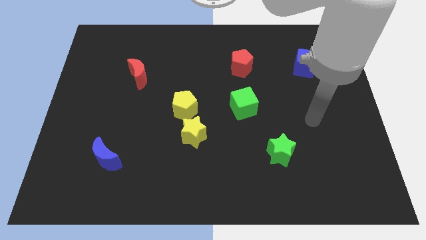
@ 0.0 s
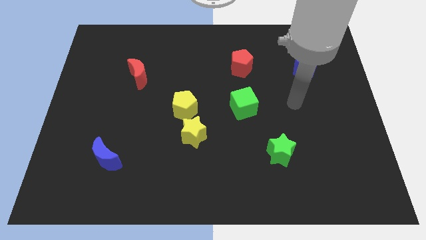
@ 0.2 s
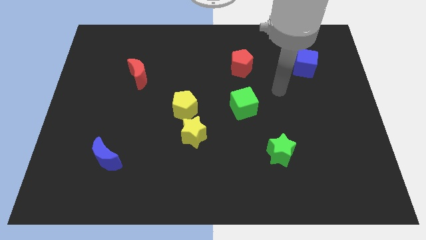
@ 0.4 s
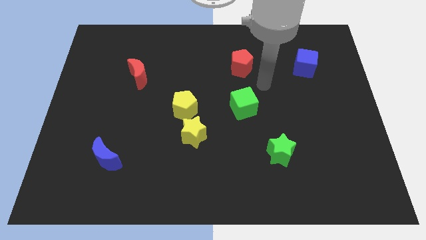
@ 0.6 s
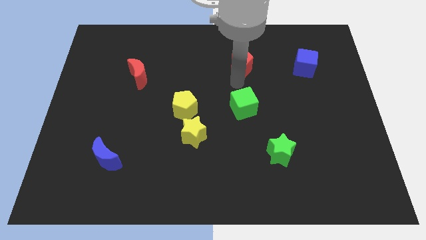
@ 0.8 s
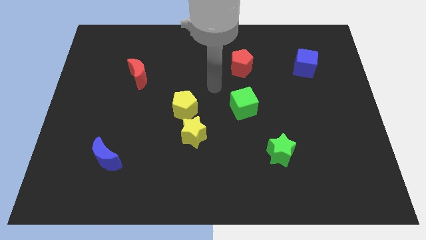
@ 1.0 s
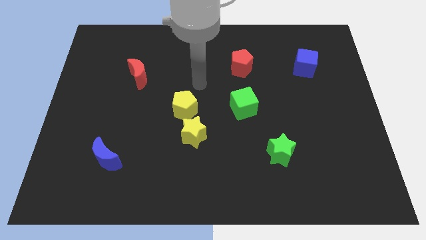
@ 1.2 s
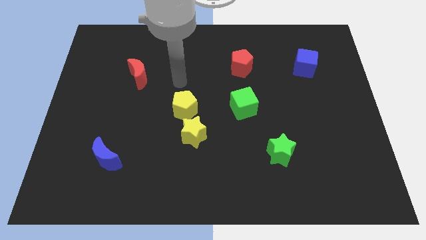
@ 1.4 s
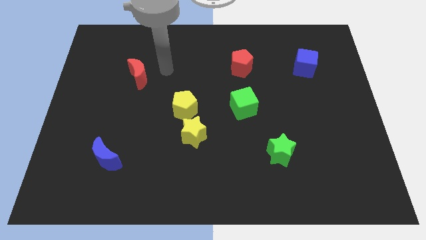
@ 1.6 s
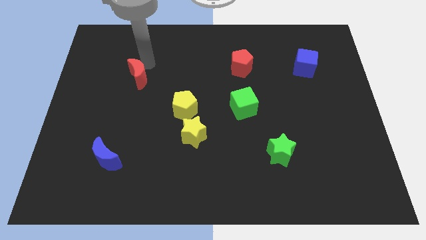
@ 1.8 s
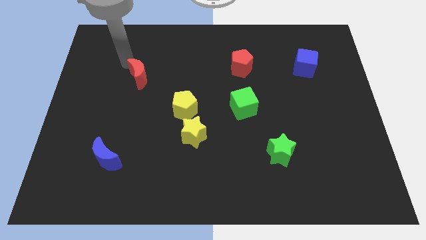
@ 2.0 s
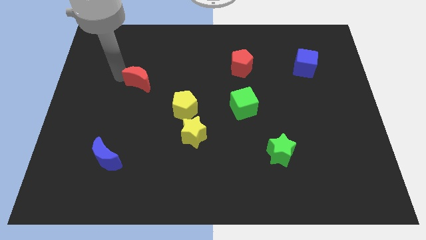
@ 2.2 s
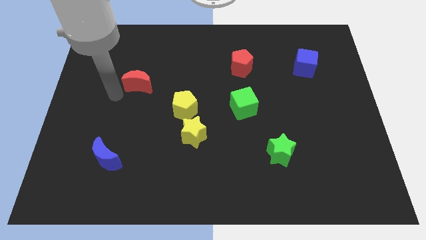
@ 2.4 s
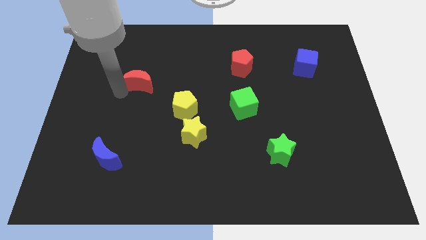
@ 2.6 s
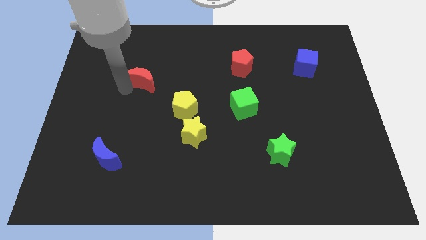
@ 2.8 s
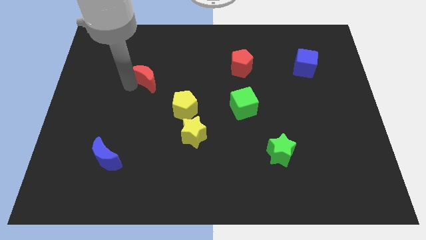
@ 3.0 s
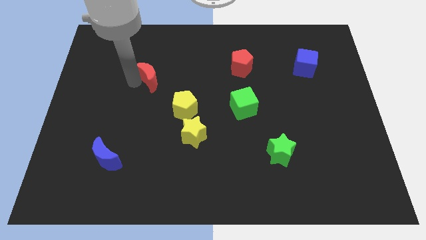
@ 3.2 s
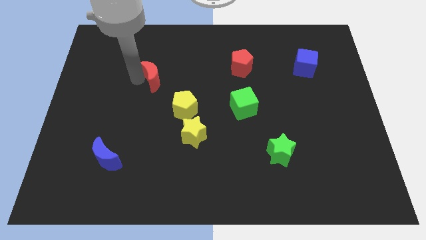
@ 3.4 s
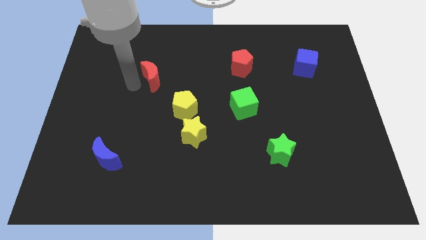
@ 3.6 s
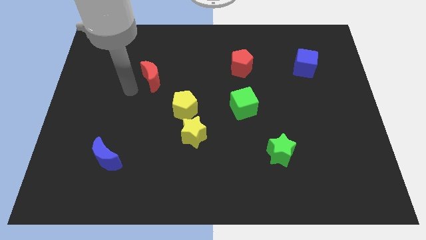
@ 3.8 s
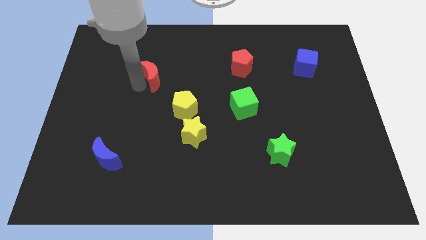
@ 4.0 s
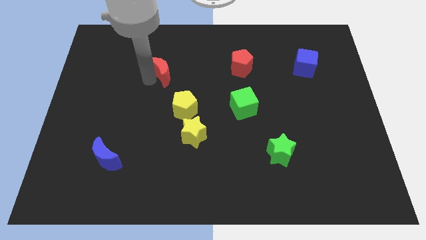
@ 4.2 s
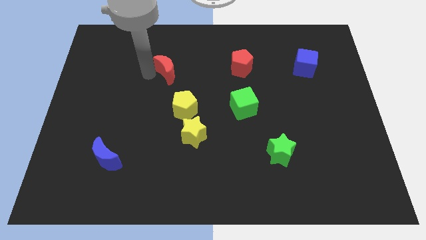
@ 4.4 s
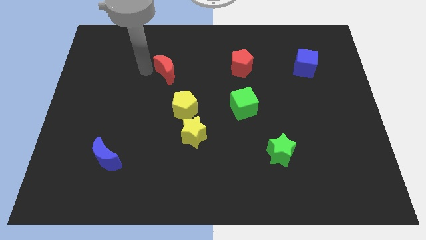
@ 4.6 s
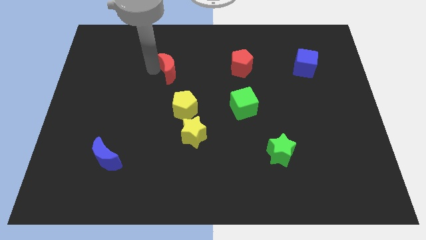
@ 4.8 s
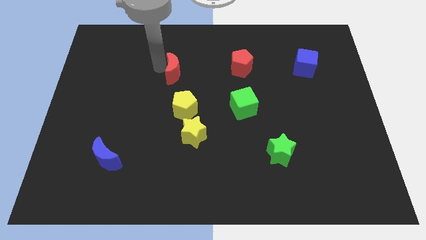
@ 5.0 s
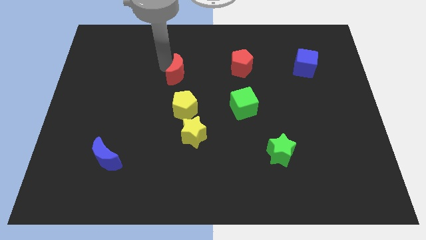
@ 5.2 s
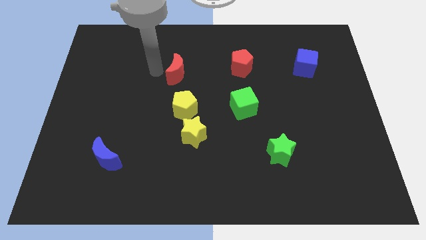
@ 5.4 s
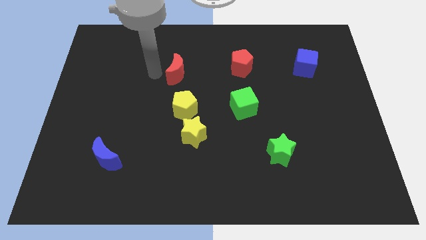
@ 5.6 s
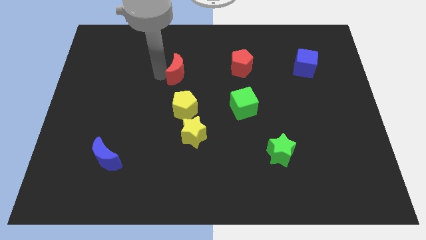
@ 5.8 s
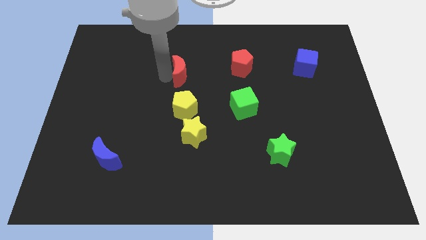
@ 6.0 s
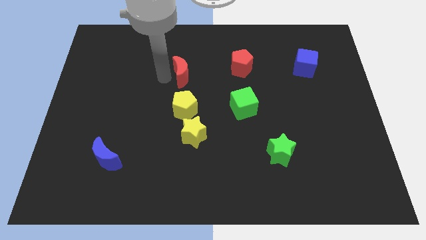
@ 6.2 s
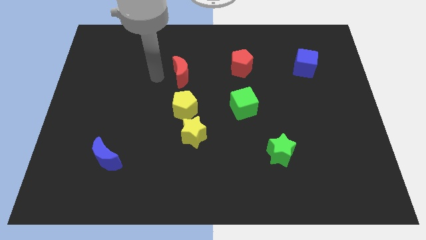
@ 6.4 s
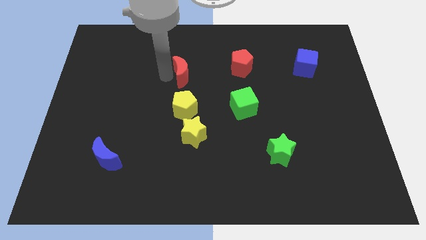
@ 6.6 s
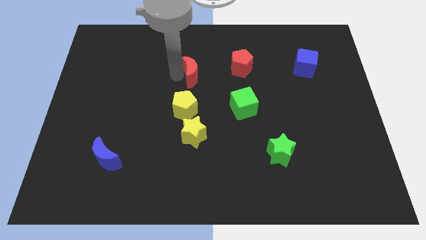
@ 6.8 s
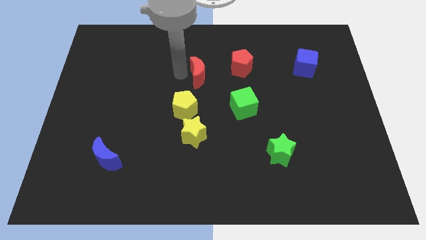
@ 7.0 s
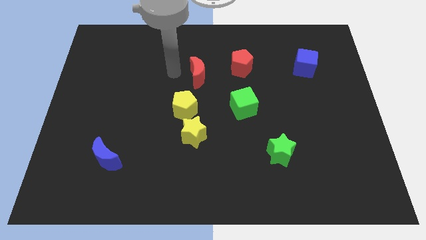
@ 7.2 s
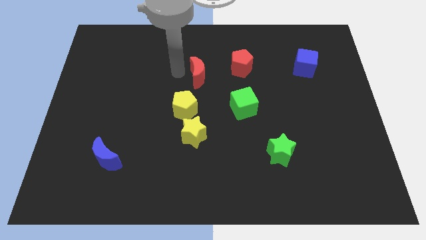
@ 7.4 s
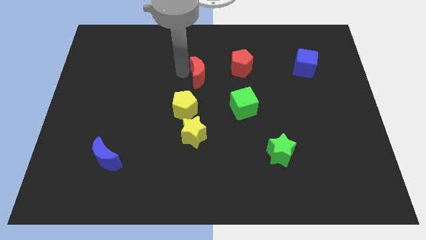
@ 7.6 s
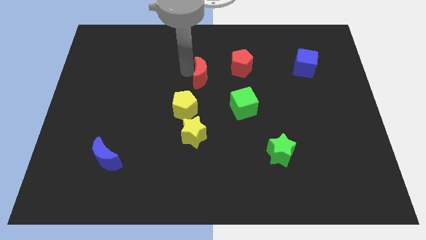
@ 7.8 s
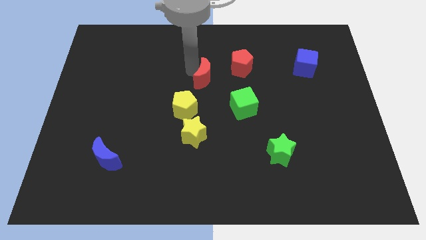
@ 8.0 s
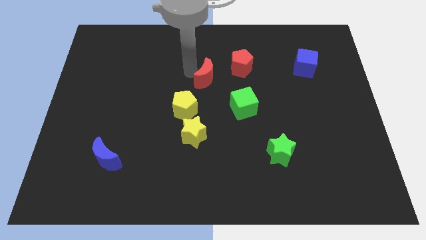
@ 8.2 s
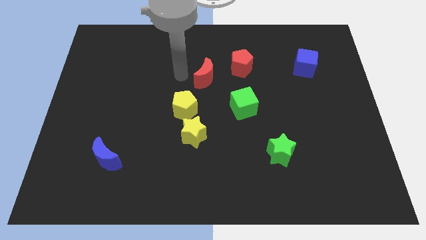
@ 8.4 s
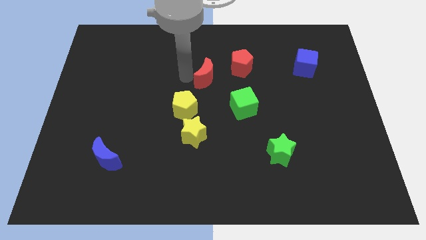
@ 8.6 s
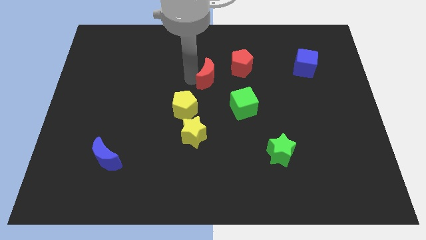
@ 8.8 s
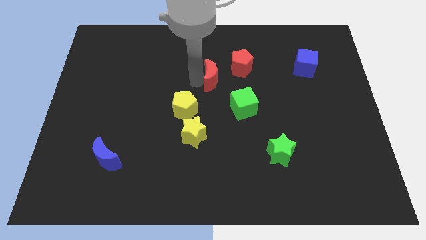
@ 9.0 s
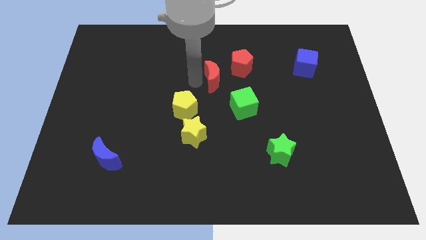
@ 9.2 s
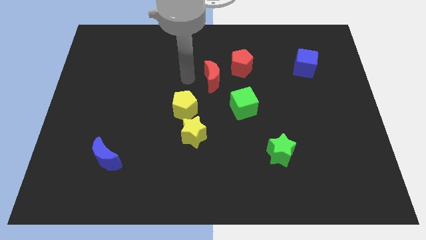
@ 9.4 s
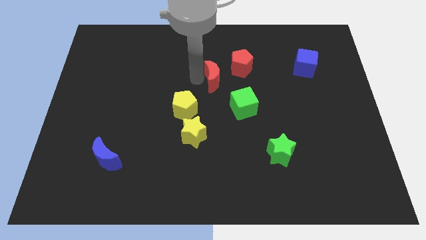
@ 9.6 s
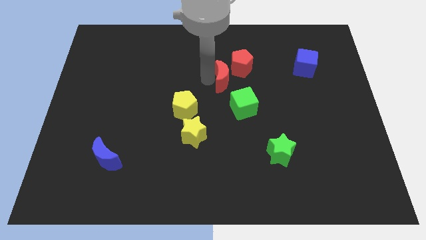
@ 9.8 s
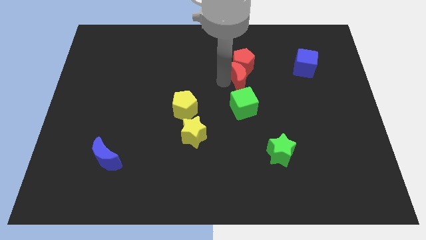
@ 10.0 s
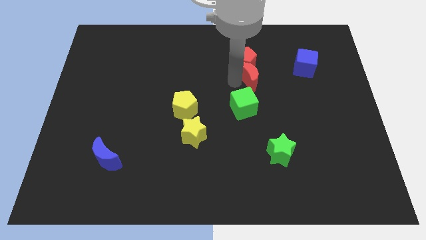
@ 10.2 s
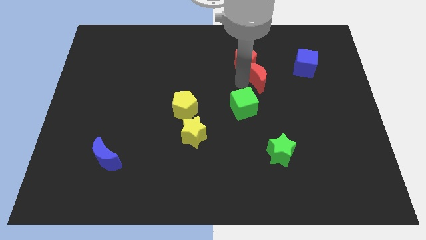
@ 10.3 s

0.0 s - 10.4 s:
move the red moon just left of the blue cube

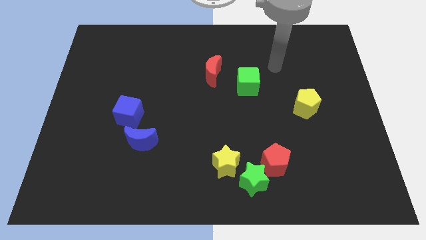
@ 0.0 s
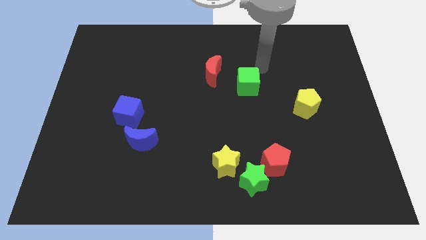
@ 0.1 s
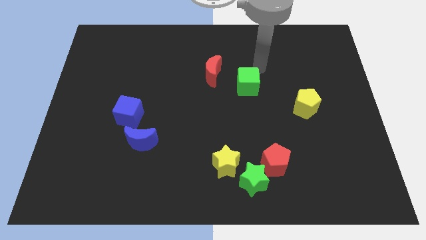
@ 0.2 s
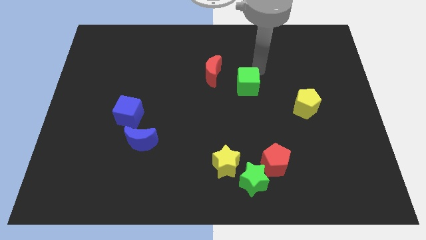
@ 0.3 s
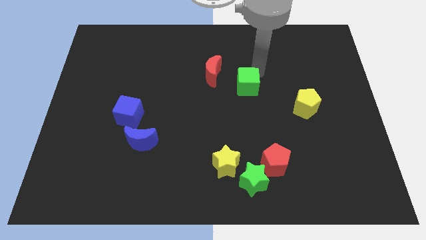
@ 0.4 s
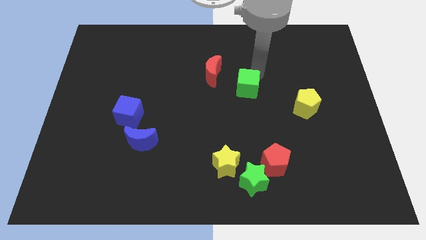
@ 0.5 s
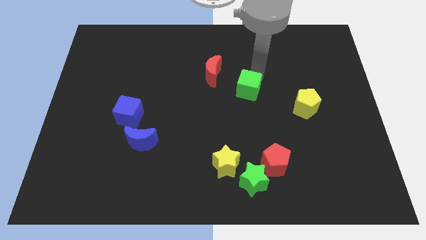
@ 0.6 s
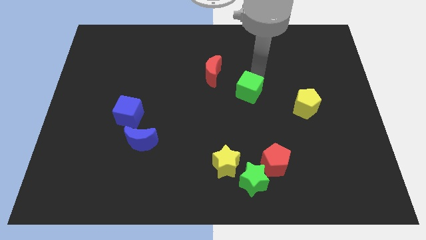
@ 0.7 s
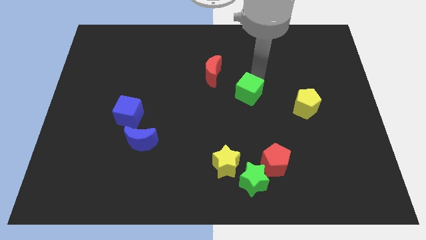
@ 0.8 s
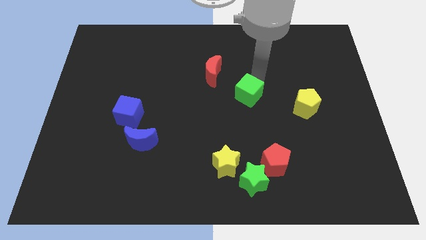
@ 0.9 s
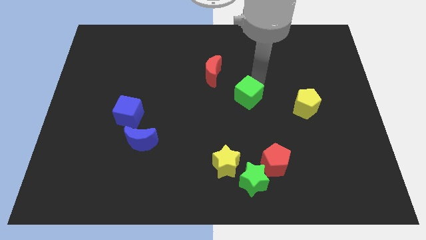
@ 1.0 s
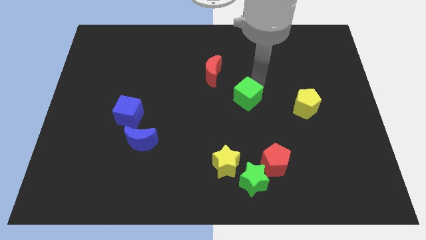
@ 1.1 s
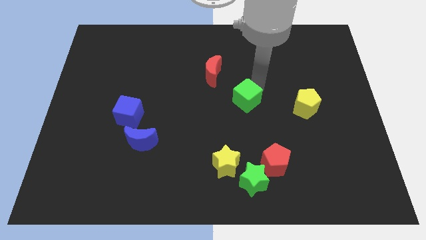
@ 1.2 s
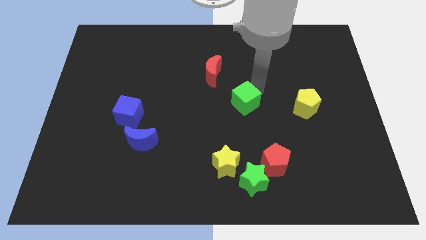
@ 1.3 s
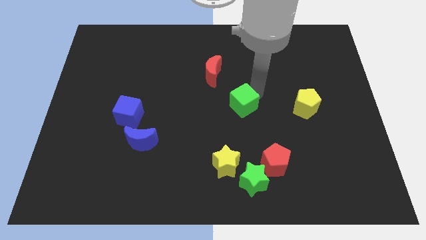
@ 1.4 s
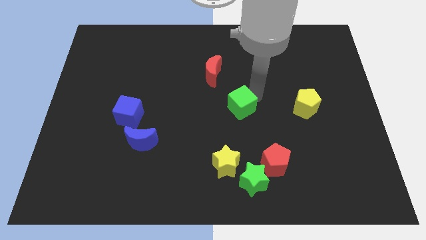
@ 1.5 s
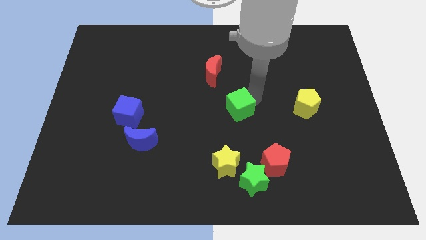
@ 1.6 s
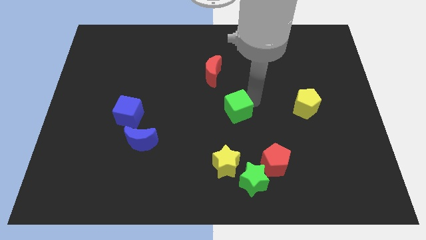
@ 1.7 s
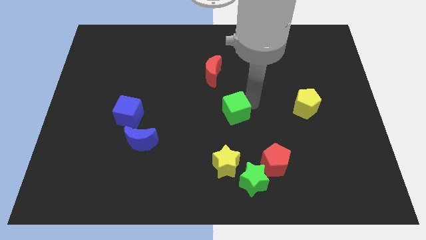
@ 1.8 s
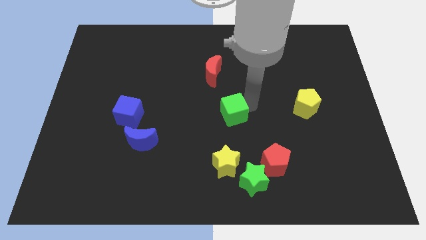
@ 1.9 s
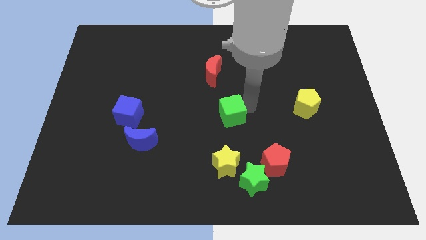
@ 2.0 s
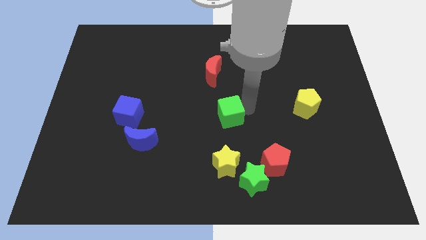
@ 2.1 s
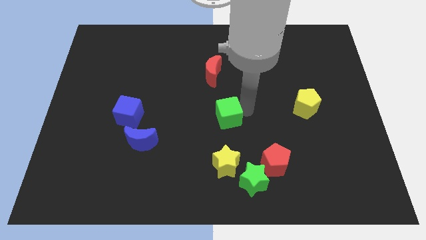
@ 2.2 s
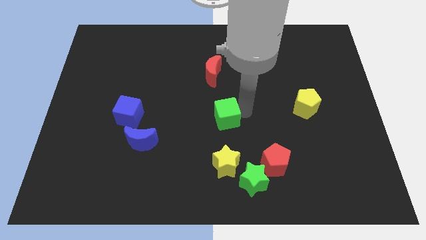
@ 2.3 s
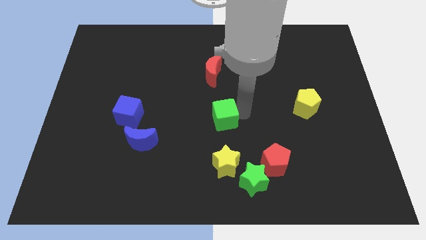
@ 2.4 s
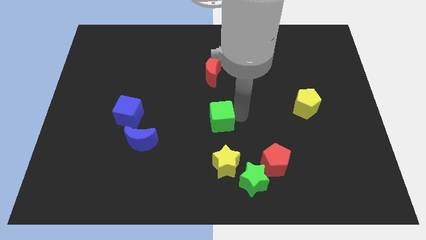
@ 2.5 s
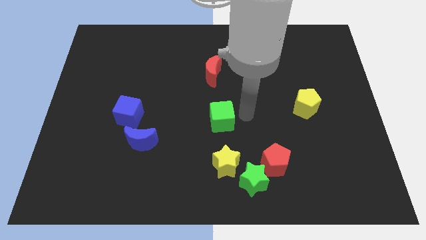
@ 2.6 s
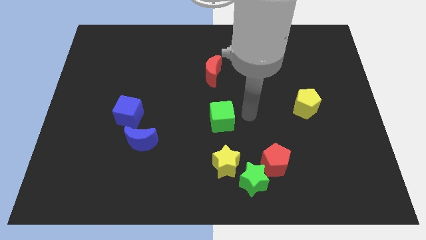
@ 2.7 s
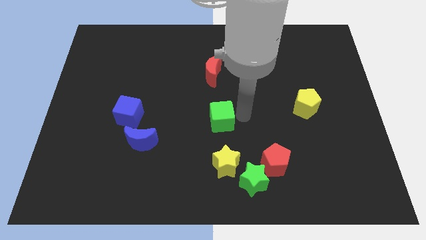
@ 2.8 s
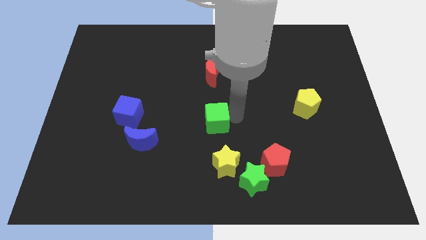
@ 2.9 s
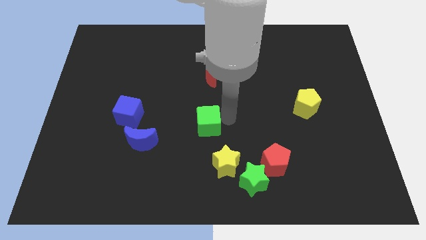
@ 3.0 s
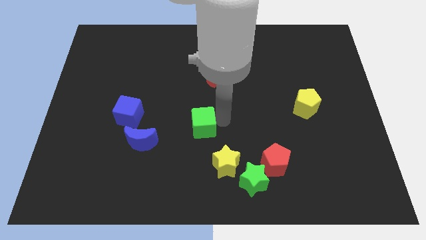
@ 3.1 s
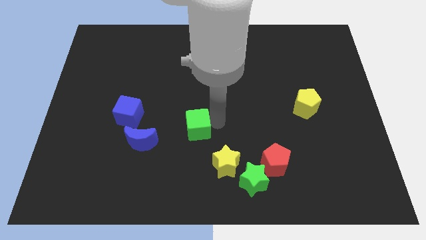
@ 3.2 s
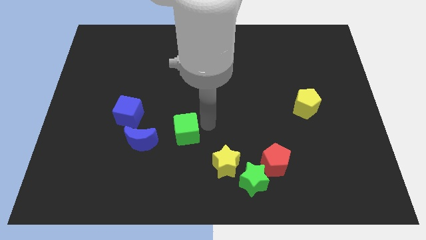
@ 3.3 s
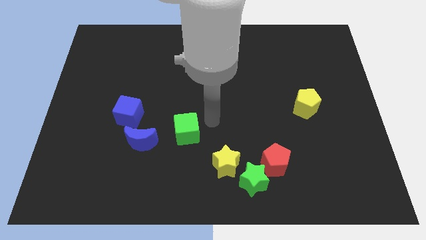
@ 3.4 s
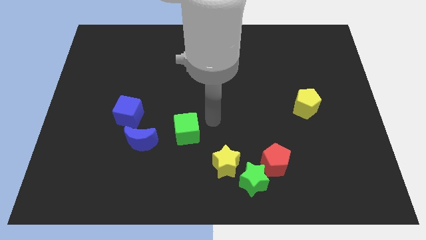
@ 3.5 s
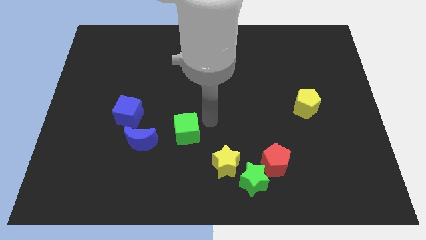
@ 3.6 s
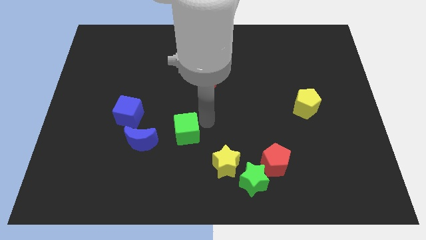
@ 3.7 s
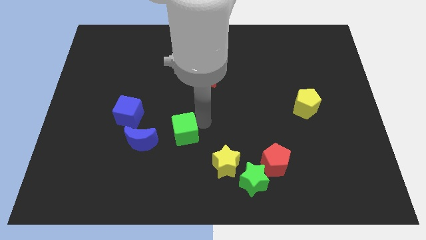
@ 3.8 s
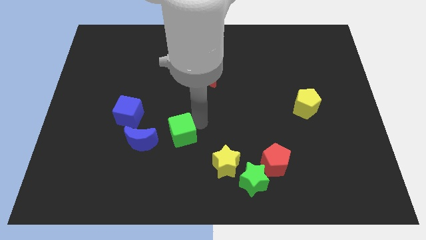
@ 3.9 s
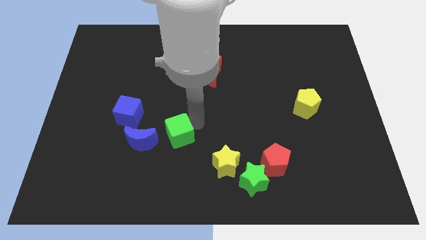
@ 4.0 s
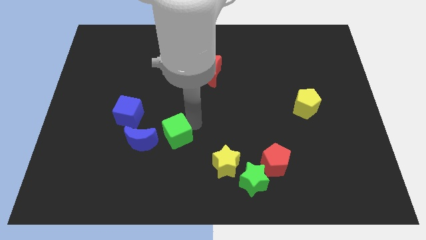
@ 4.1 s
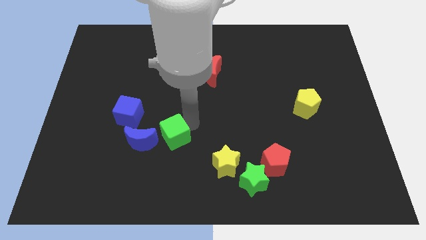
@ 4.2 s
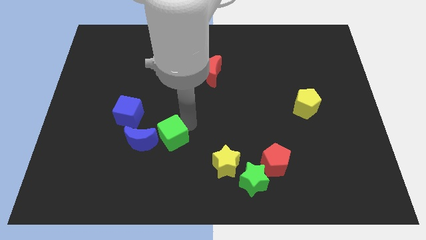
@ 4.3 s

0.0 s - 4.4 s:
move the green cube to the bottom right of the blue cube
